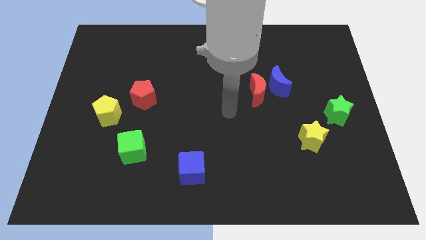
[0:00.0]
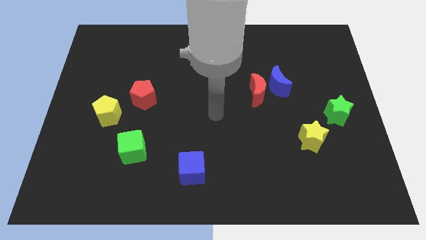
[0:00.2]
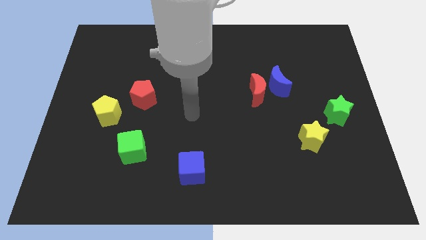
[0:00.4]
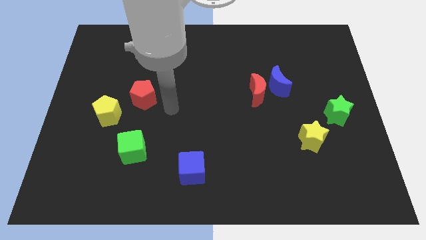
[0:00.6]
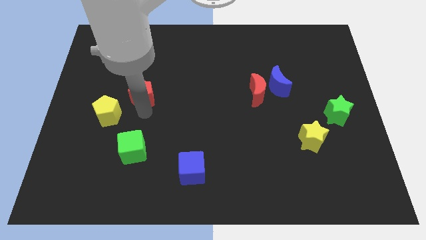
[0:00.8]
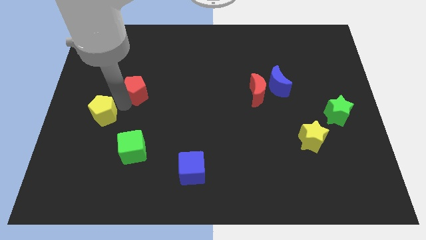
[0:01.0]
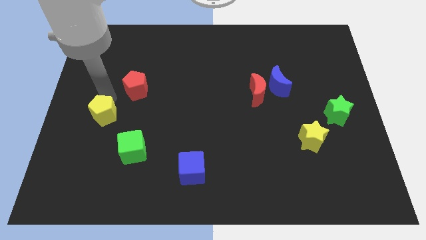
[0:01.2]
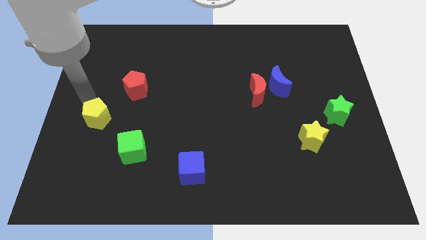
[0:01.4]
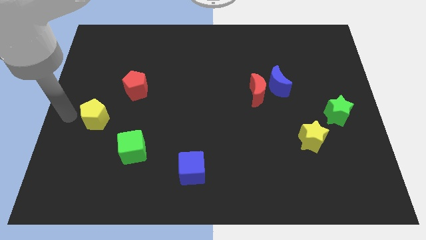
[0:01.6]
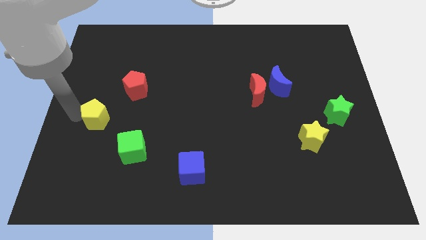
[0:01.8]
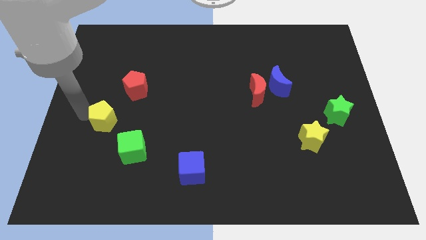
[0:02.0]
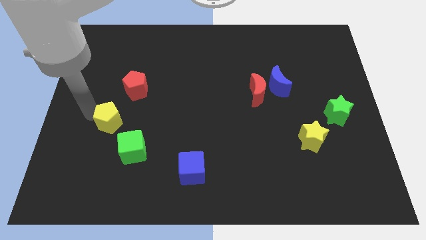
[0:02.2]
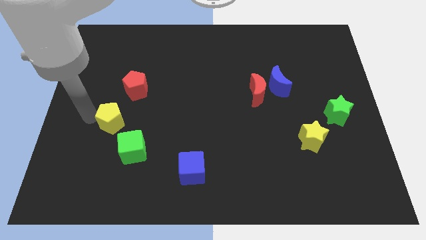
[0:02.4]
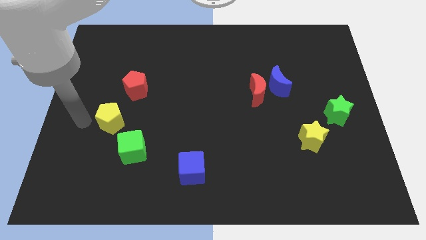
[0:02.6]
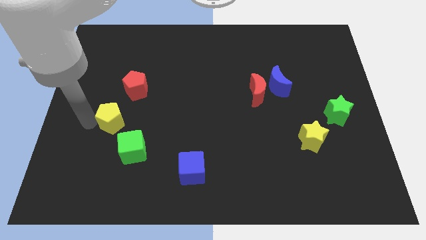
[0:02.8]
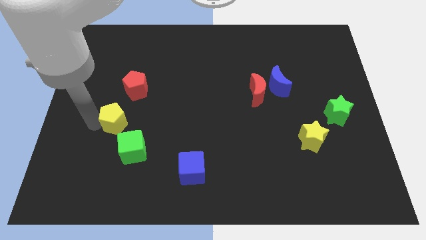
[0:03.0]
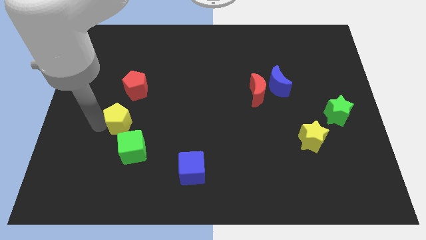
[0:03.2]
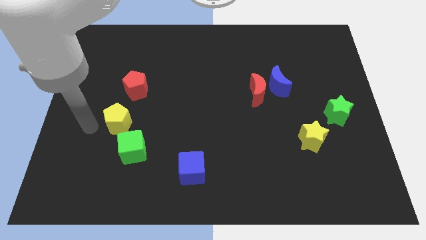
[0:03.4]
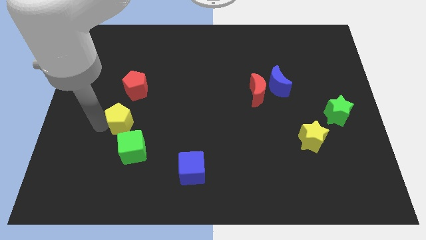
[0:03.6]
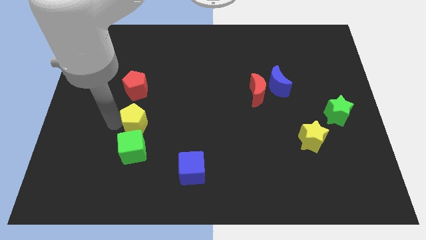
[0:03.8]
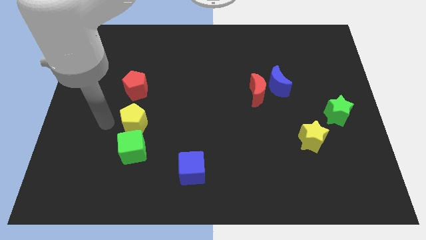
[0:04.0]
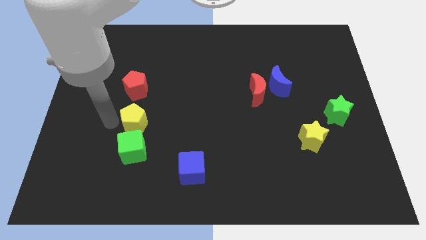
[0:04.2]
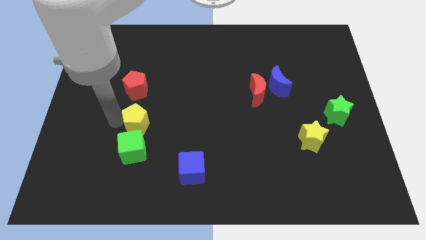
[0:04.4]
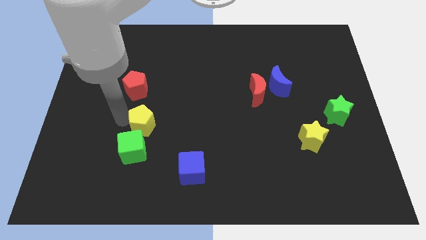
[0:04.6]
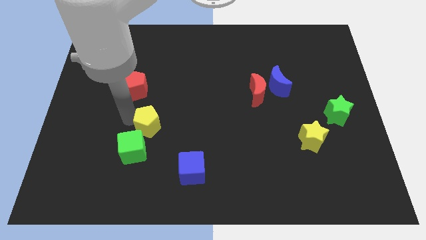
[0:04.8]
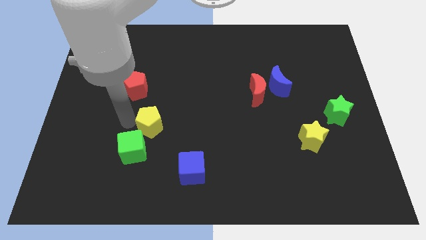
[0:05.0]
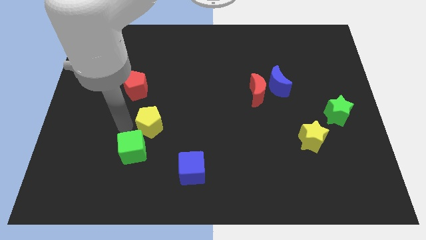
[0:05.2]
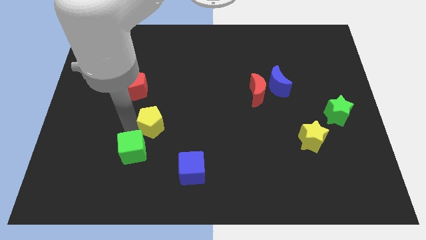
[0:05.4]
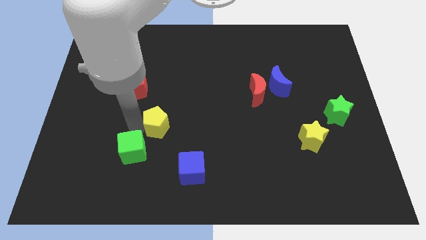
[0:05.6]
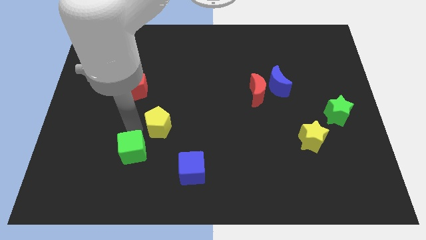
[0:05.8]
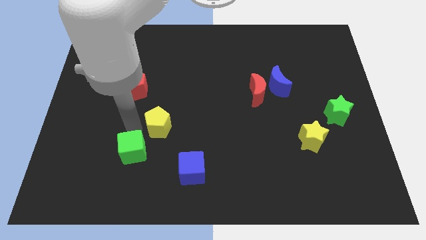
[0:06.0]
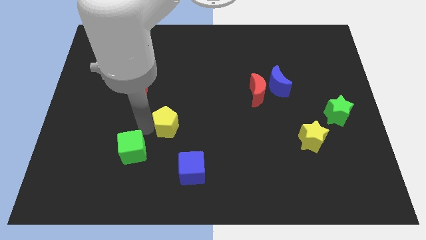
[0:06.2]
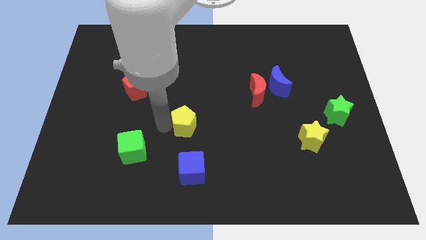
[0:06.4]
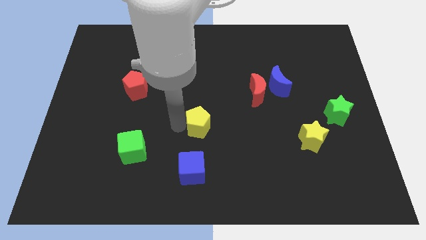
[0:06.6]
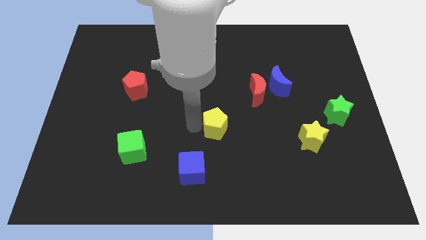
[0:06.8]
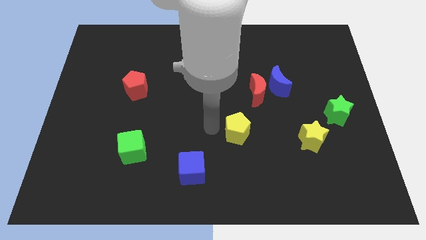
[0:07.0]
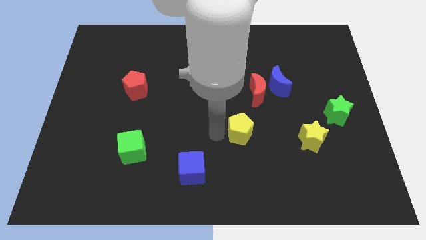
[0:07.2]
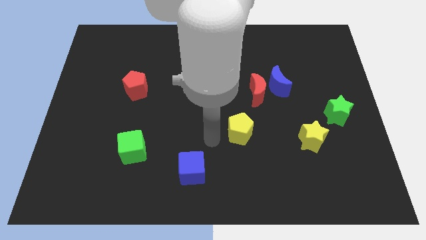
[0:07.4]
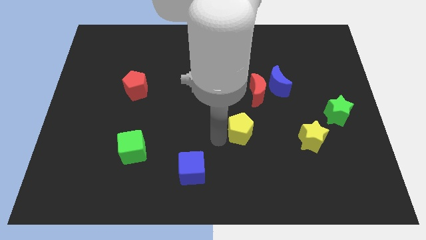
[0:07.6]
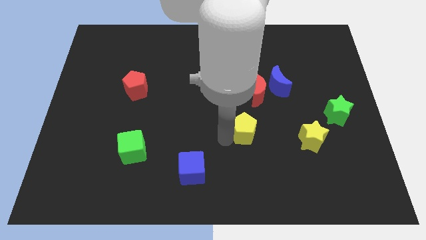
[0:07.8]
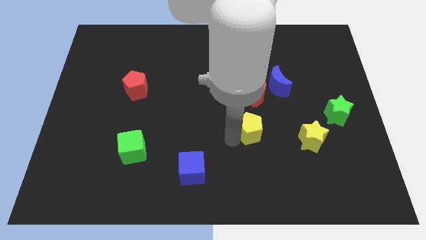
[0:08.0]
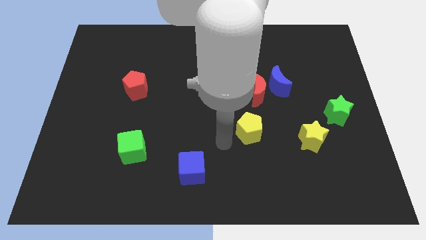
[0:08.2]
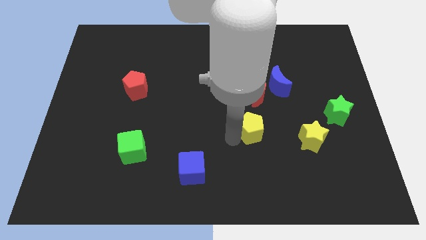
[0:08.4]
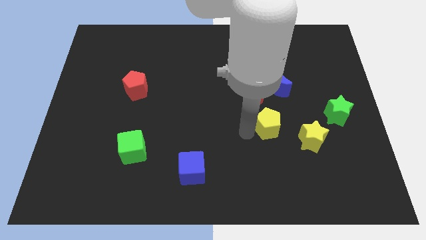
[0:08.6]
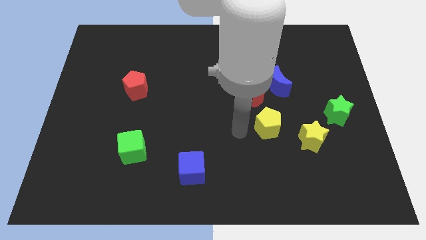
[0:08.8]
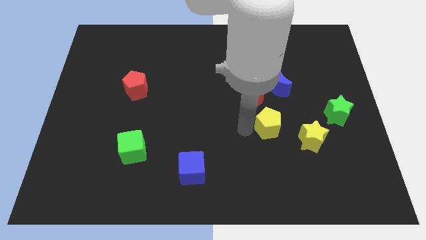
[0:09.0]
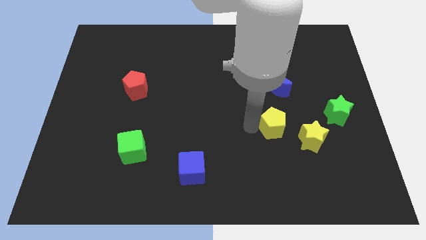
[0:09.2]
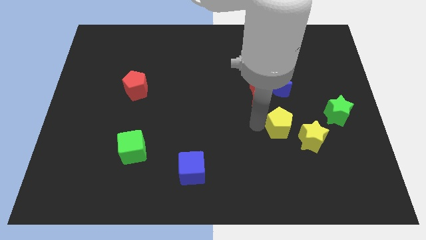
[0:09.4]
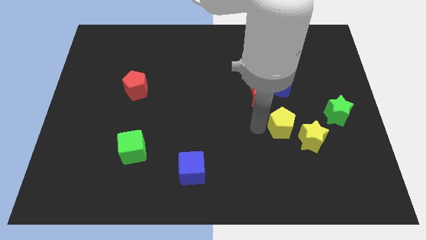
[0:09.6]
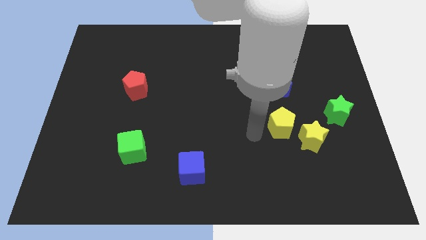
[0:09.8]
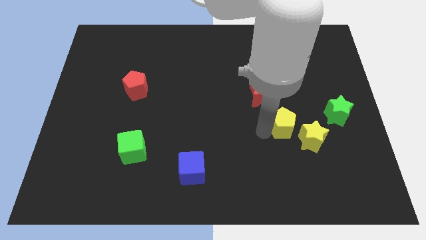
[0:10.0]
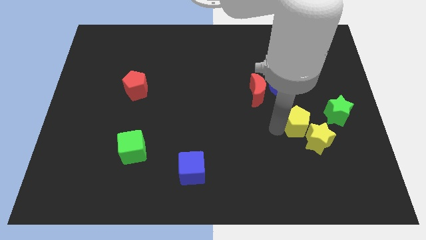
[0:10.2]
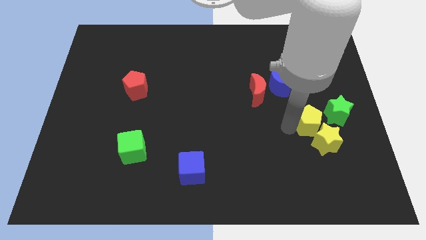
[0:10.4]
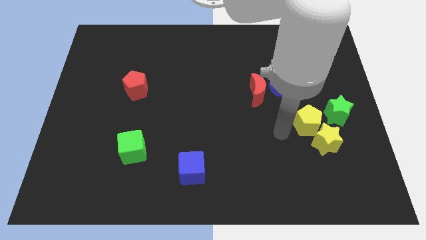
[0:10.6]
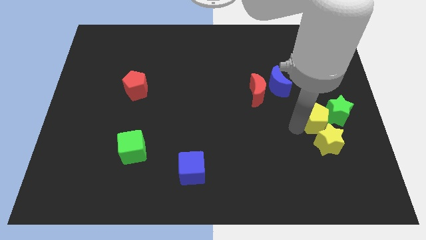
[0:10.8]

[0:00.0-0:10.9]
push the yellow pentagon to the green star

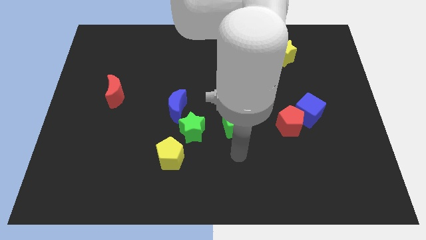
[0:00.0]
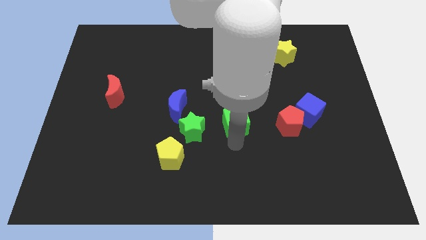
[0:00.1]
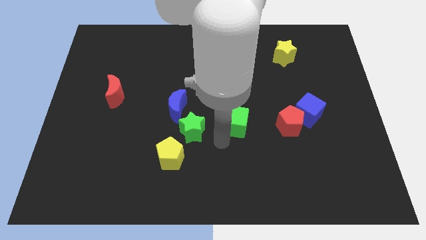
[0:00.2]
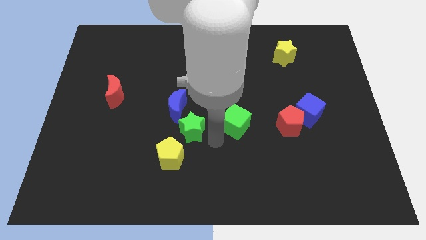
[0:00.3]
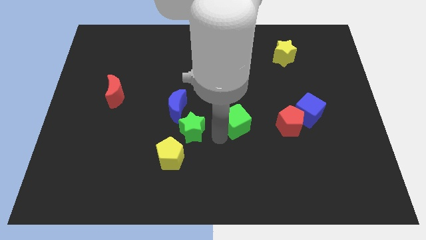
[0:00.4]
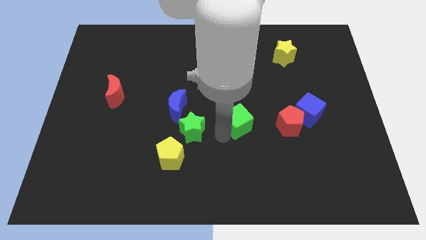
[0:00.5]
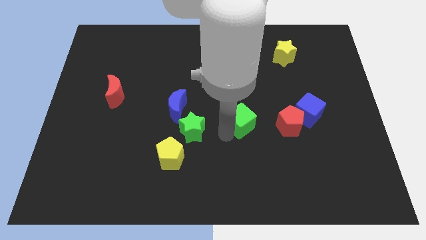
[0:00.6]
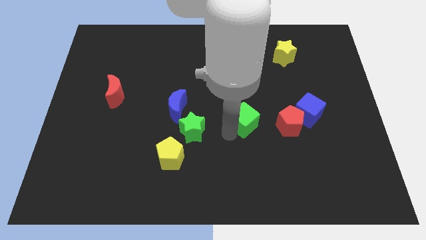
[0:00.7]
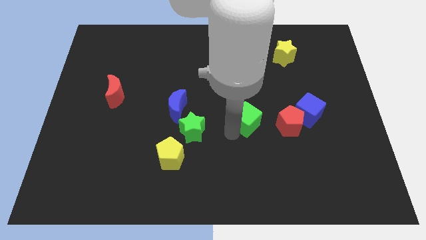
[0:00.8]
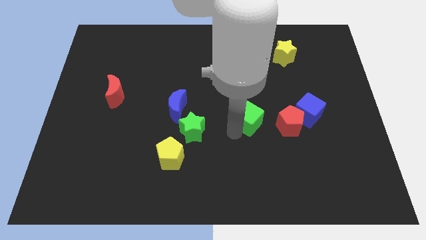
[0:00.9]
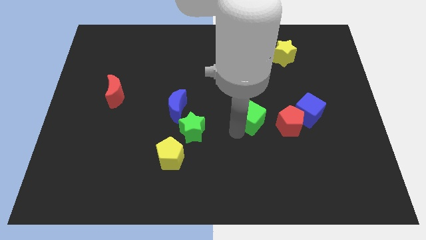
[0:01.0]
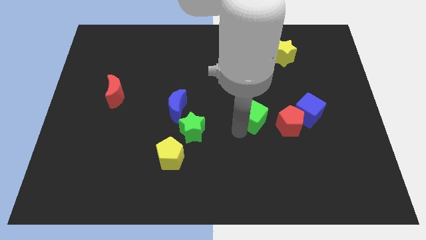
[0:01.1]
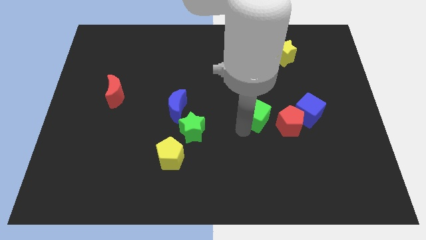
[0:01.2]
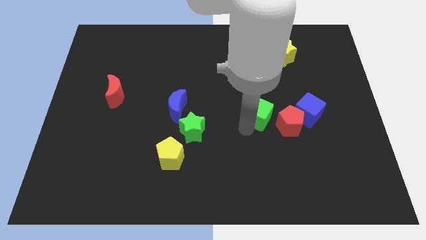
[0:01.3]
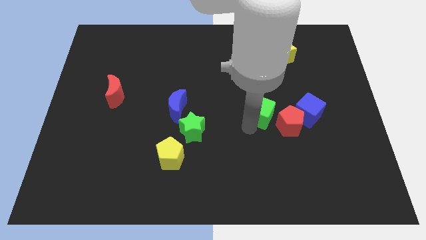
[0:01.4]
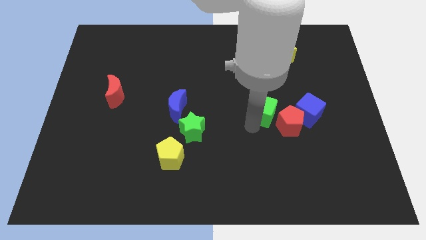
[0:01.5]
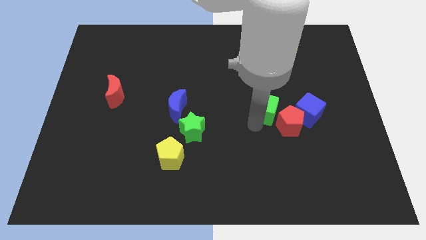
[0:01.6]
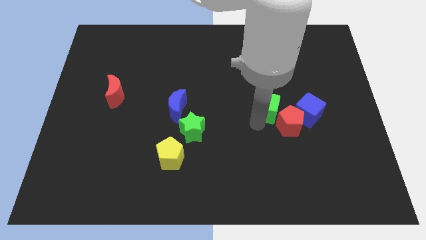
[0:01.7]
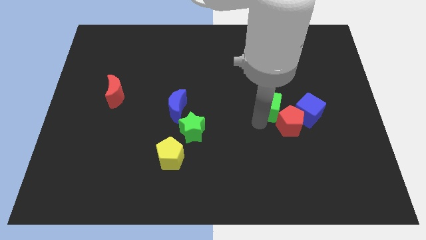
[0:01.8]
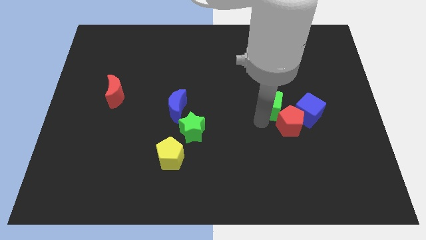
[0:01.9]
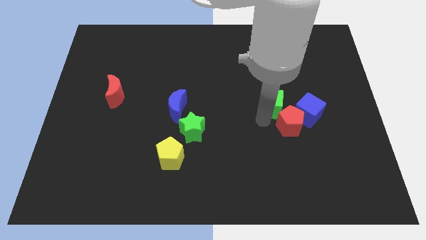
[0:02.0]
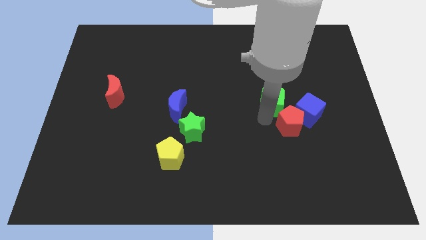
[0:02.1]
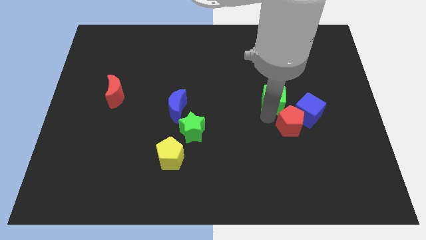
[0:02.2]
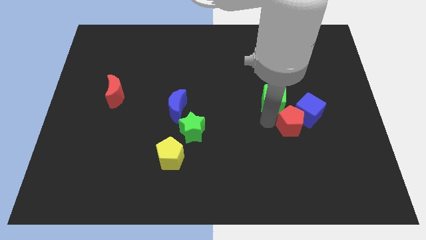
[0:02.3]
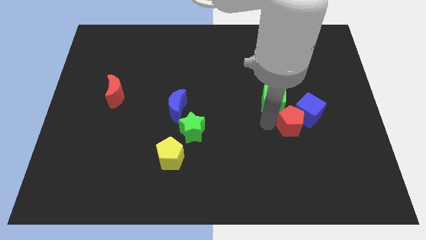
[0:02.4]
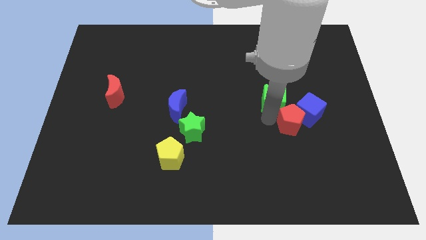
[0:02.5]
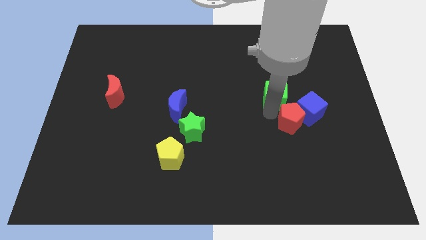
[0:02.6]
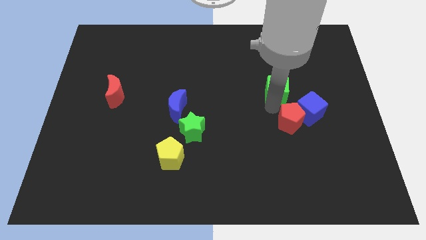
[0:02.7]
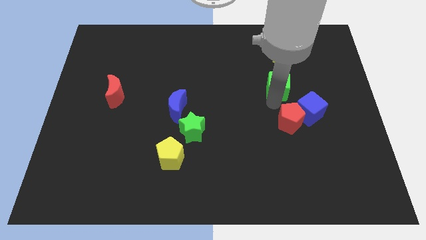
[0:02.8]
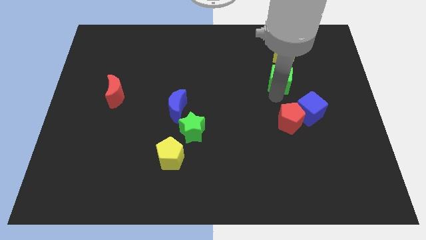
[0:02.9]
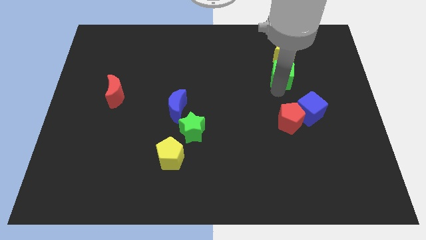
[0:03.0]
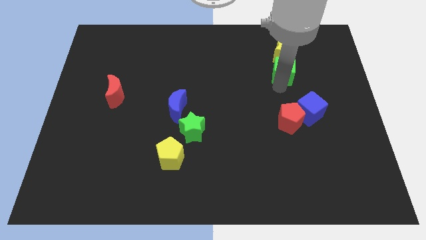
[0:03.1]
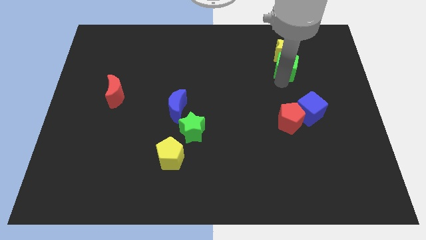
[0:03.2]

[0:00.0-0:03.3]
push the green cube close to the yellow star
